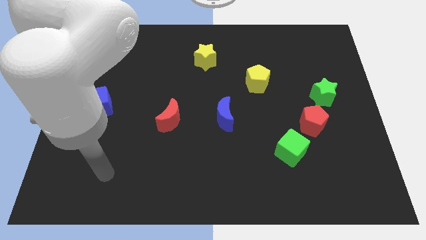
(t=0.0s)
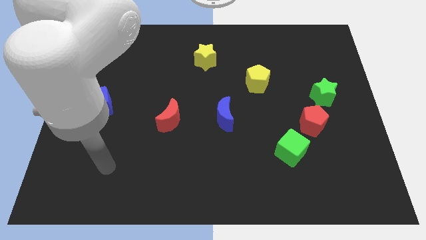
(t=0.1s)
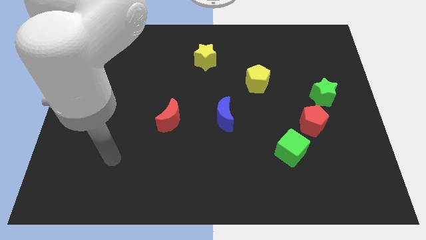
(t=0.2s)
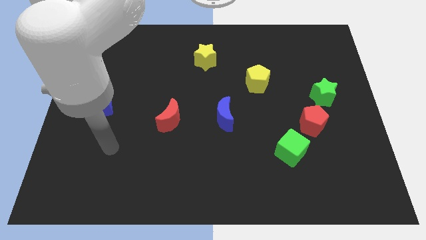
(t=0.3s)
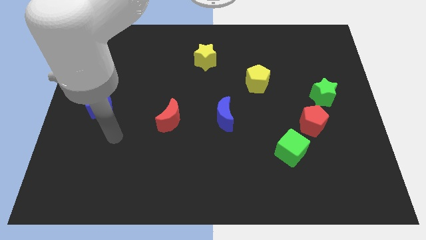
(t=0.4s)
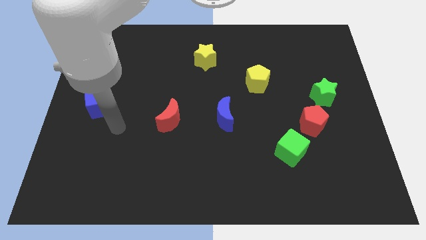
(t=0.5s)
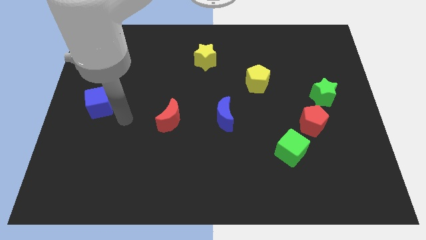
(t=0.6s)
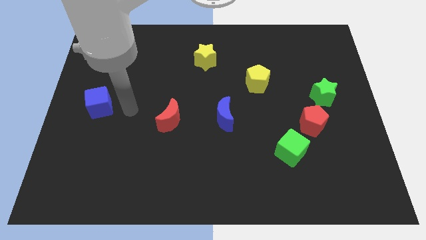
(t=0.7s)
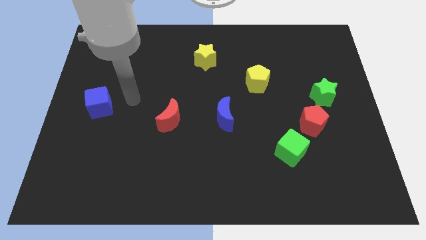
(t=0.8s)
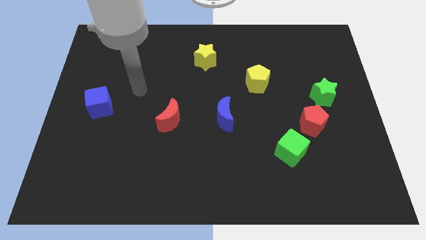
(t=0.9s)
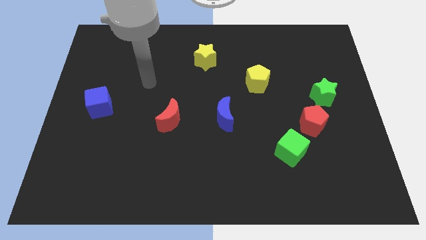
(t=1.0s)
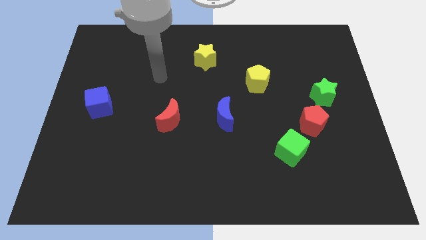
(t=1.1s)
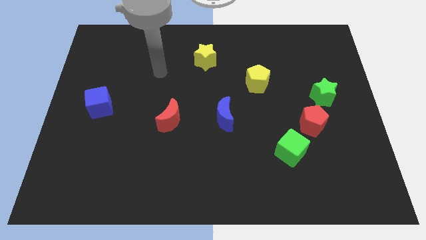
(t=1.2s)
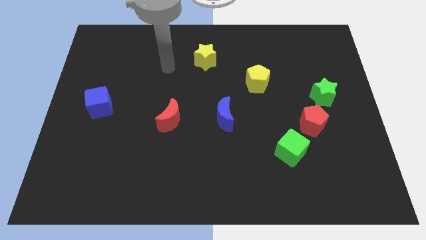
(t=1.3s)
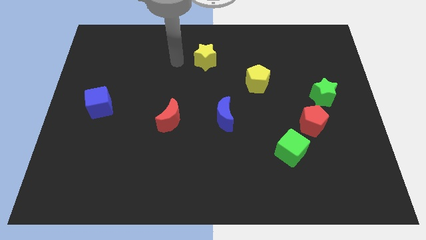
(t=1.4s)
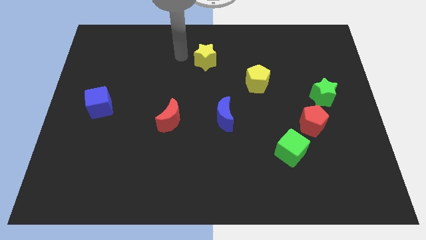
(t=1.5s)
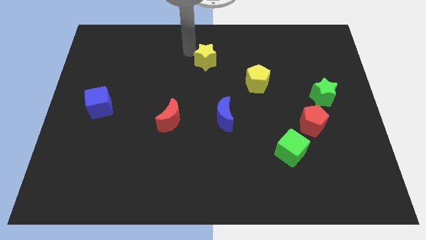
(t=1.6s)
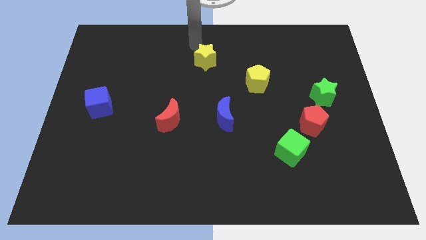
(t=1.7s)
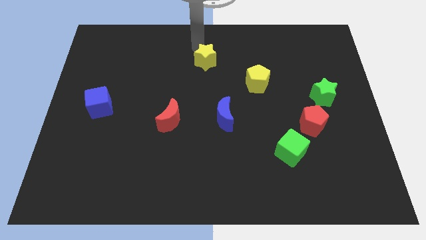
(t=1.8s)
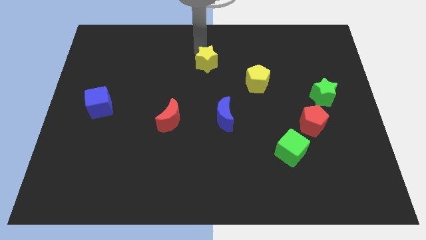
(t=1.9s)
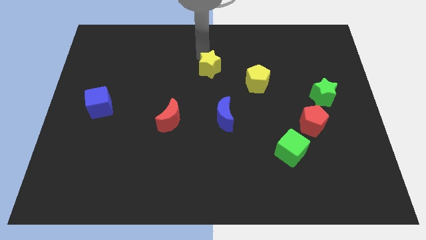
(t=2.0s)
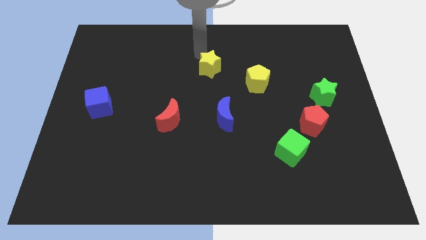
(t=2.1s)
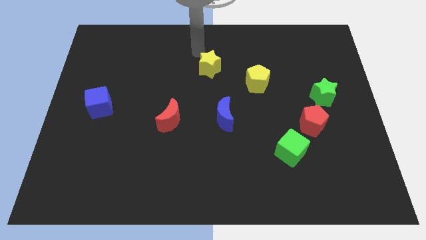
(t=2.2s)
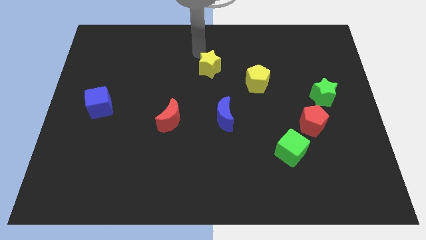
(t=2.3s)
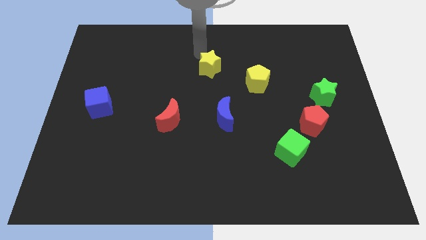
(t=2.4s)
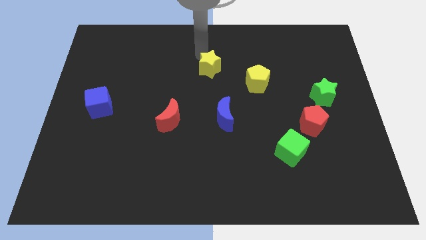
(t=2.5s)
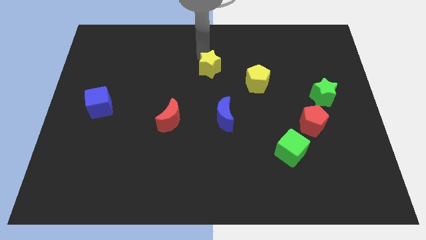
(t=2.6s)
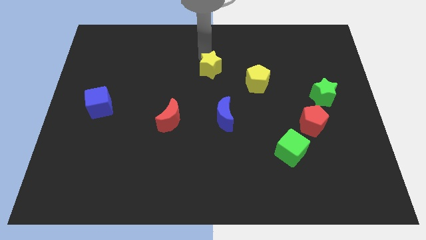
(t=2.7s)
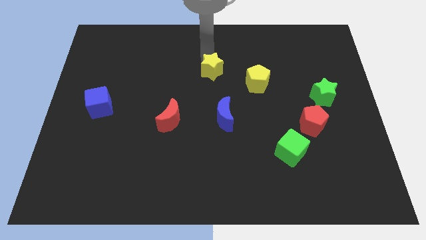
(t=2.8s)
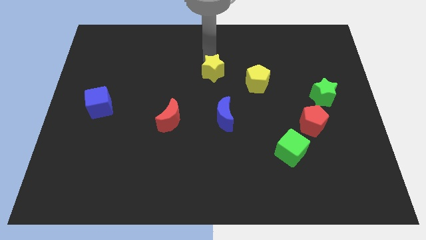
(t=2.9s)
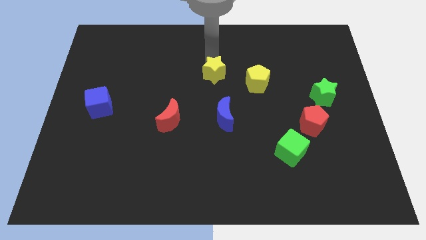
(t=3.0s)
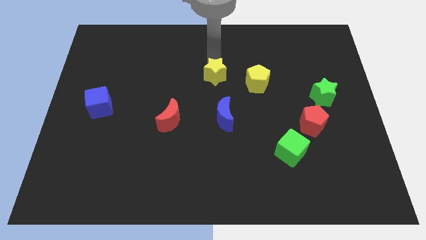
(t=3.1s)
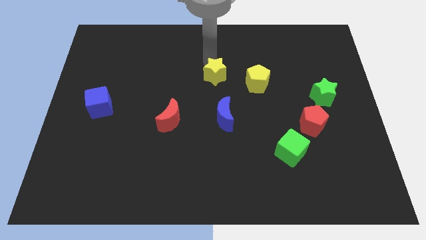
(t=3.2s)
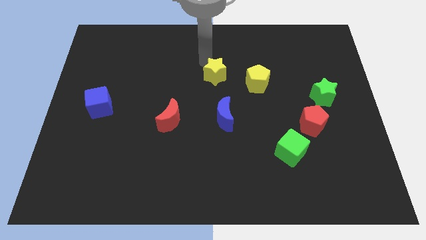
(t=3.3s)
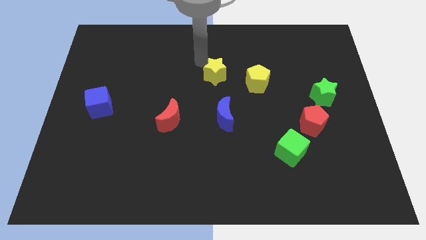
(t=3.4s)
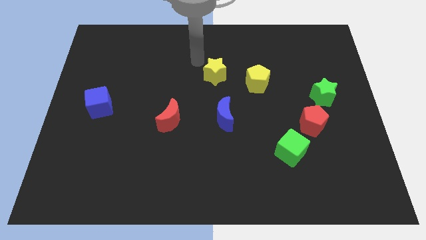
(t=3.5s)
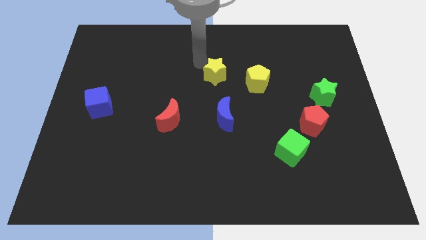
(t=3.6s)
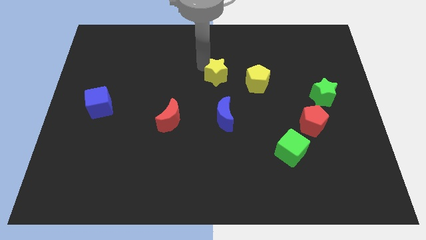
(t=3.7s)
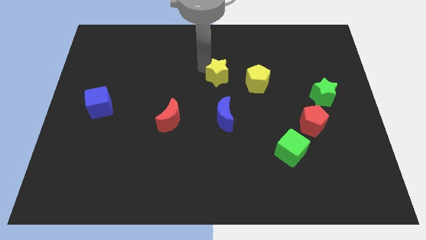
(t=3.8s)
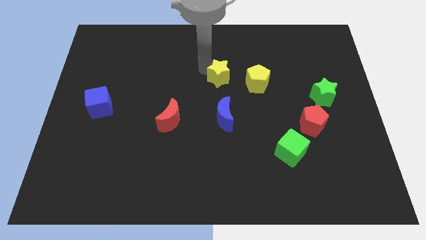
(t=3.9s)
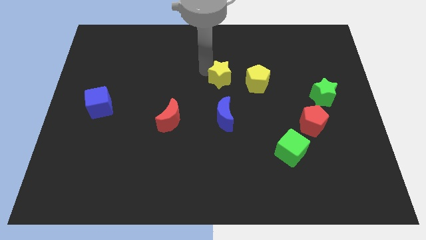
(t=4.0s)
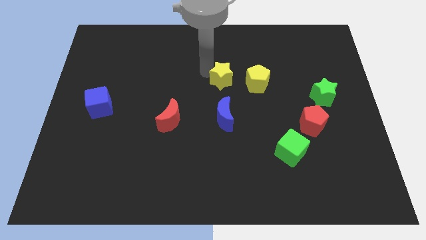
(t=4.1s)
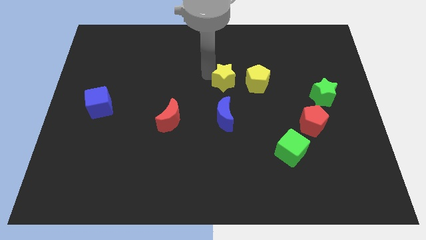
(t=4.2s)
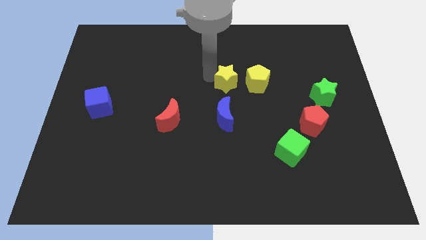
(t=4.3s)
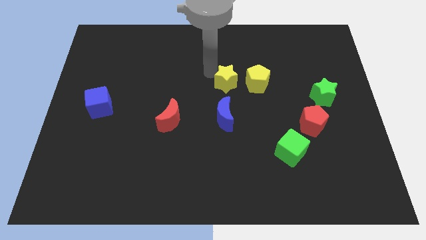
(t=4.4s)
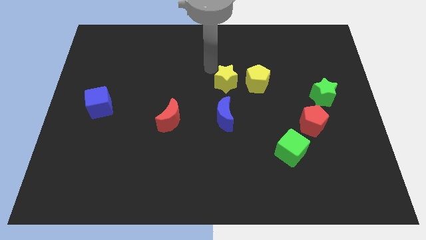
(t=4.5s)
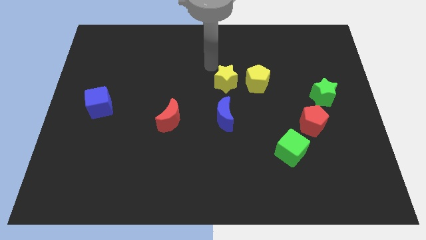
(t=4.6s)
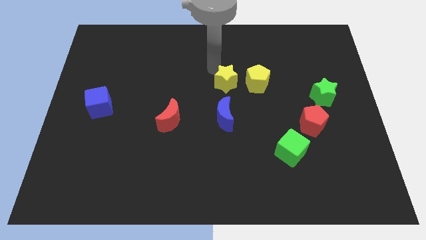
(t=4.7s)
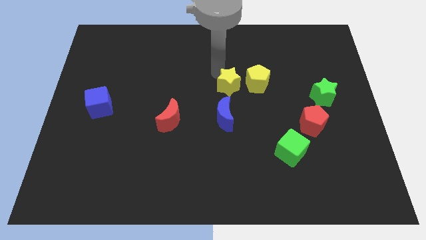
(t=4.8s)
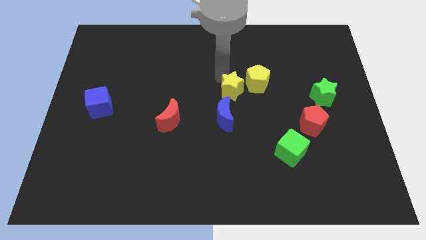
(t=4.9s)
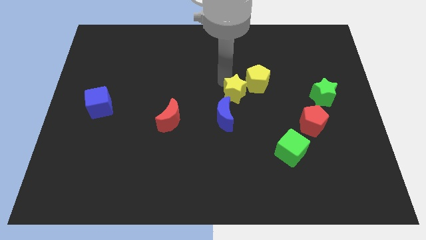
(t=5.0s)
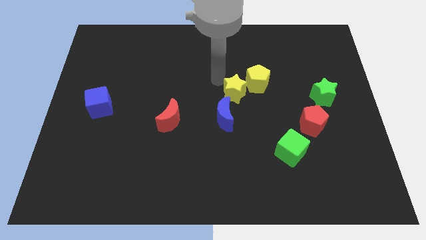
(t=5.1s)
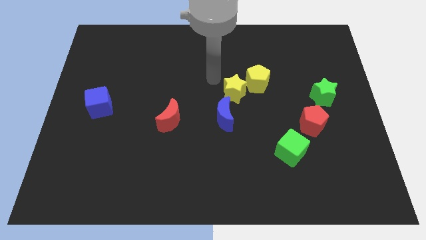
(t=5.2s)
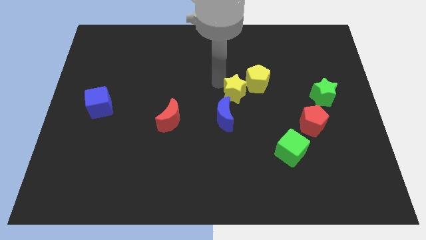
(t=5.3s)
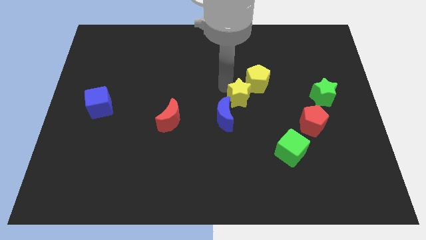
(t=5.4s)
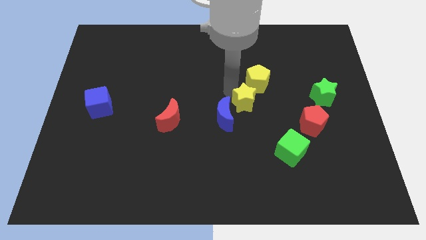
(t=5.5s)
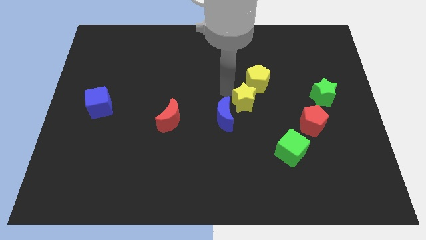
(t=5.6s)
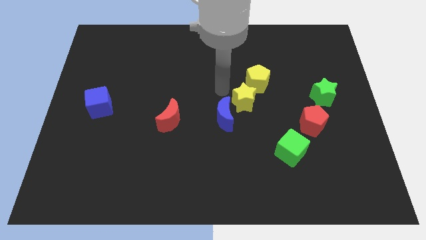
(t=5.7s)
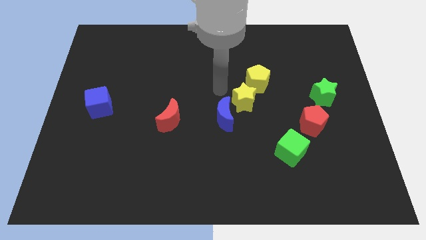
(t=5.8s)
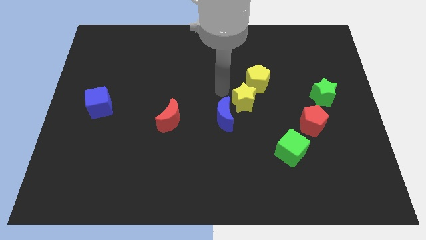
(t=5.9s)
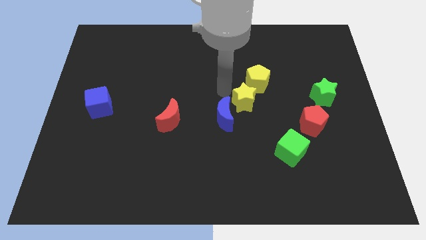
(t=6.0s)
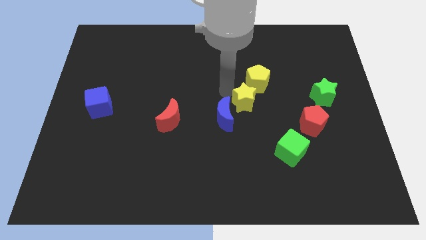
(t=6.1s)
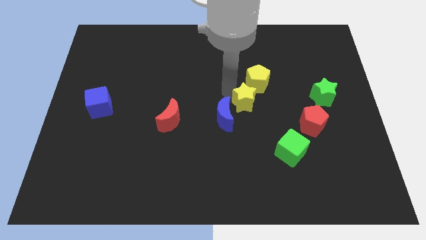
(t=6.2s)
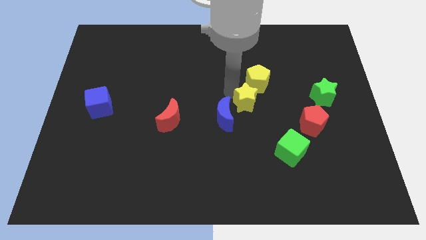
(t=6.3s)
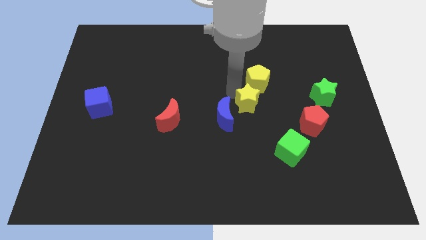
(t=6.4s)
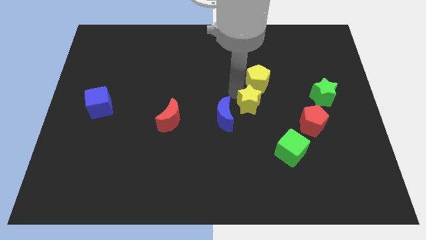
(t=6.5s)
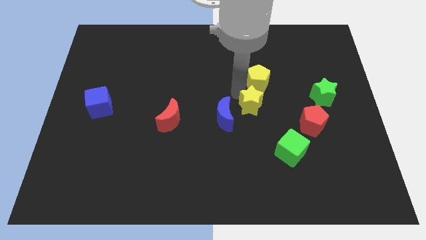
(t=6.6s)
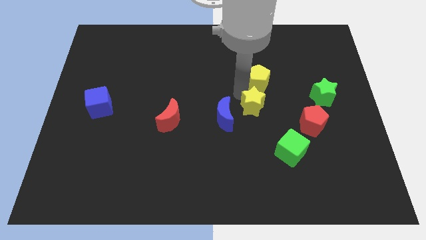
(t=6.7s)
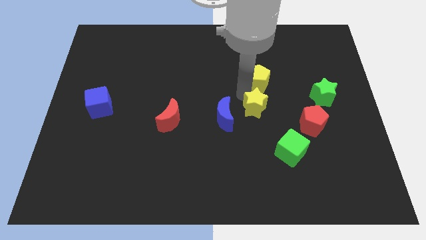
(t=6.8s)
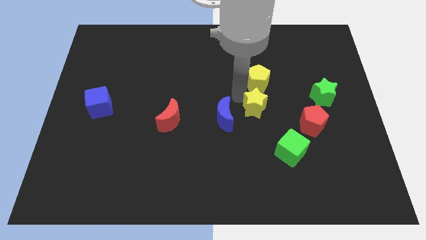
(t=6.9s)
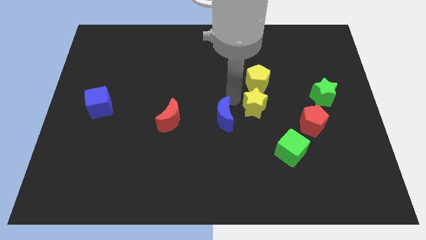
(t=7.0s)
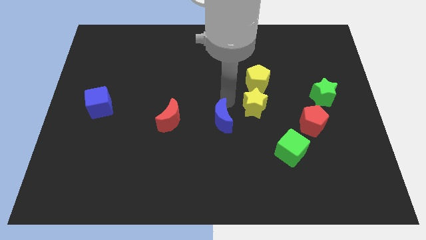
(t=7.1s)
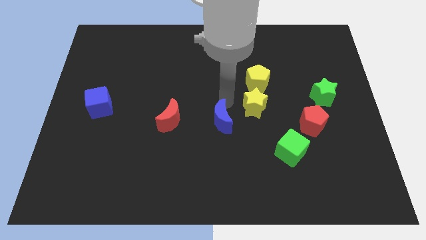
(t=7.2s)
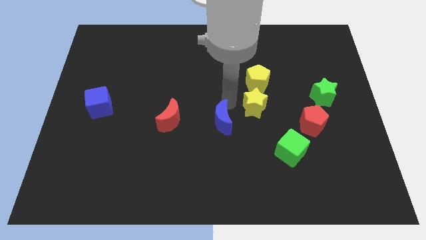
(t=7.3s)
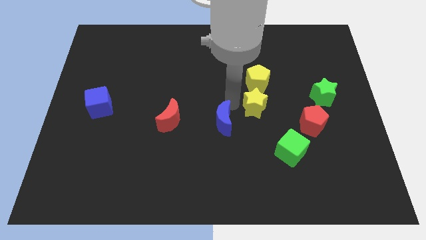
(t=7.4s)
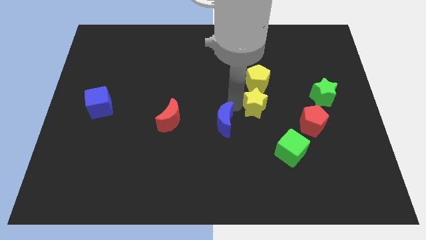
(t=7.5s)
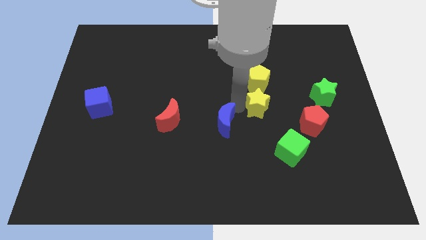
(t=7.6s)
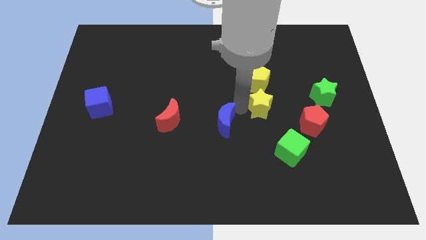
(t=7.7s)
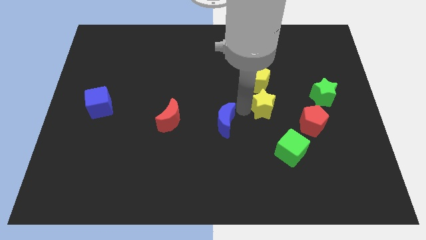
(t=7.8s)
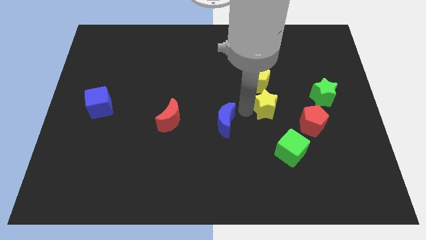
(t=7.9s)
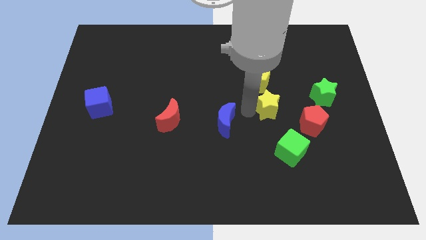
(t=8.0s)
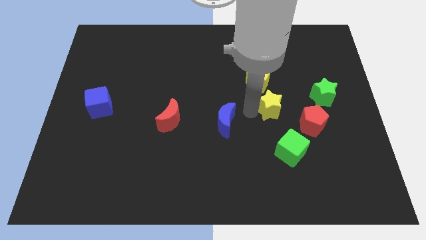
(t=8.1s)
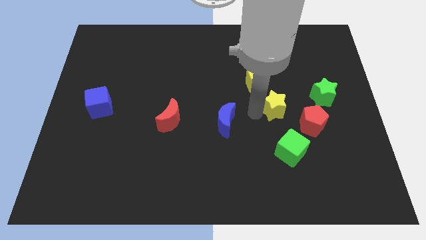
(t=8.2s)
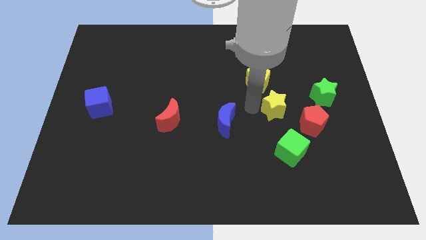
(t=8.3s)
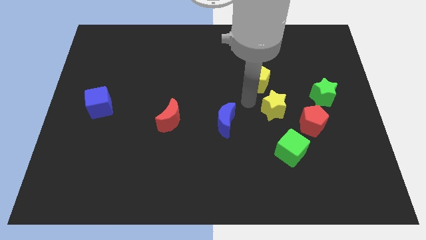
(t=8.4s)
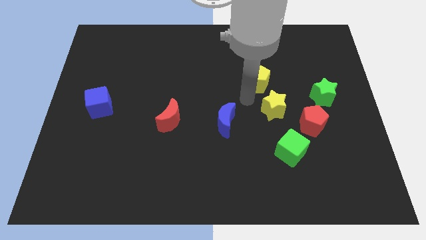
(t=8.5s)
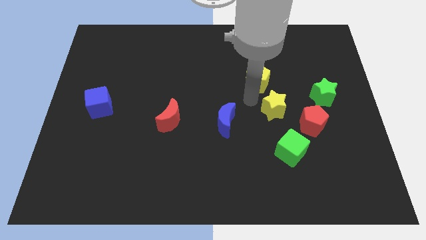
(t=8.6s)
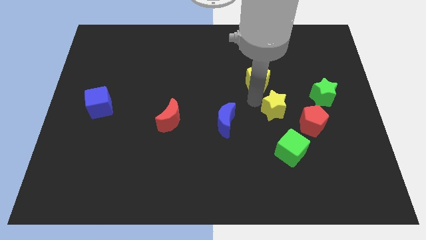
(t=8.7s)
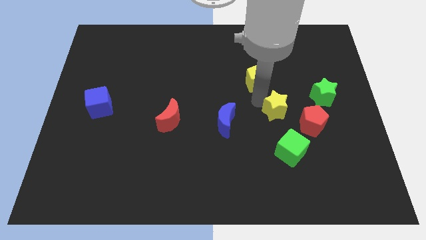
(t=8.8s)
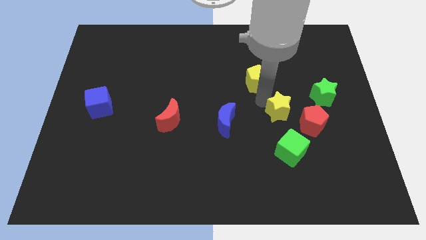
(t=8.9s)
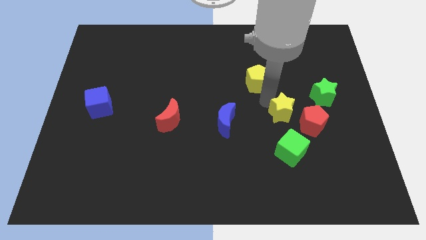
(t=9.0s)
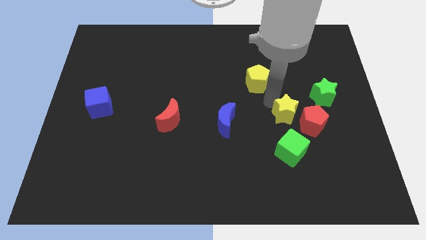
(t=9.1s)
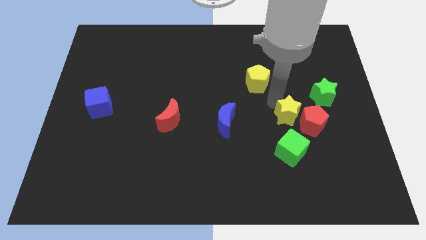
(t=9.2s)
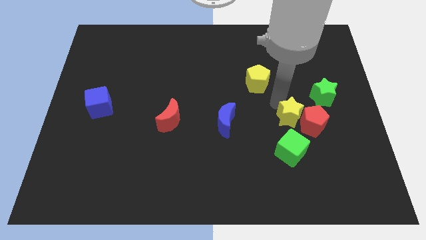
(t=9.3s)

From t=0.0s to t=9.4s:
slide the yellow star close to the red pentagon
